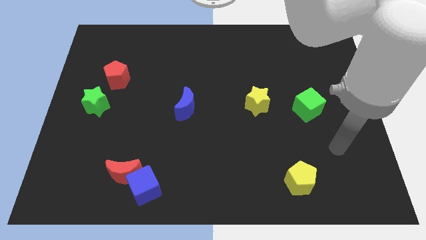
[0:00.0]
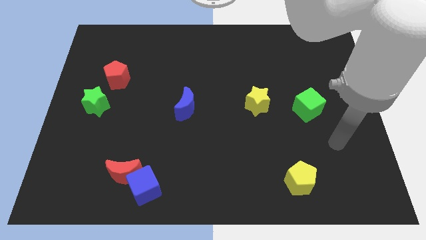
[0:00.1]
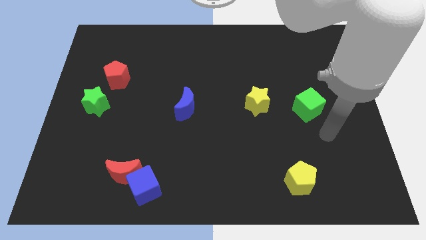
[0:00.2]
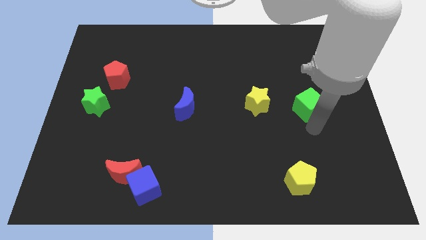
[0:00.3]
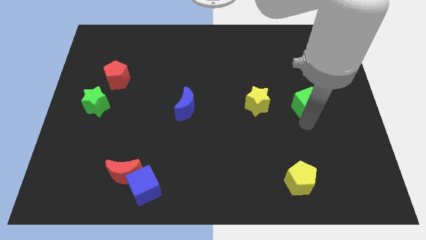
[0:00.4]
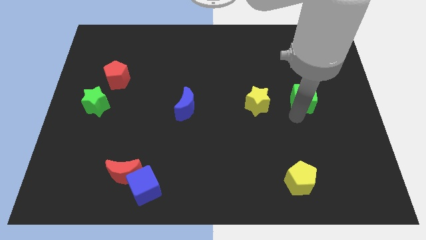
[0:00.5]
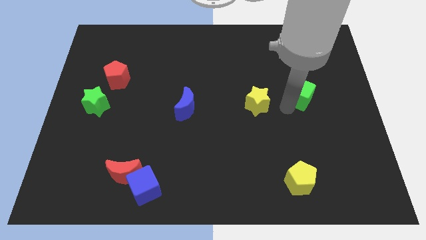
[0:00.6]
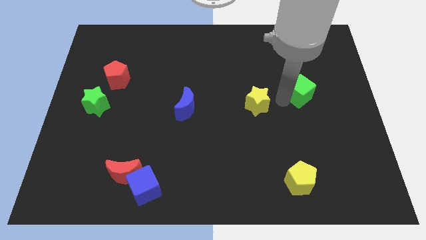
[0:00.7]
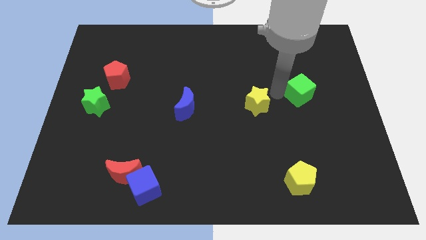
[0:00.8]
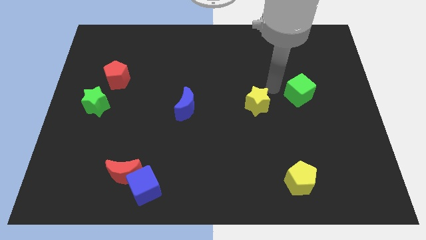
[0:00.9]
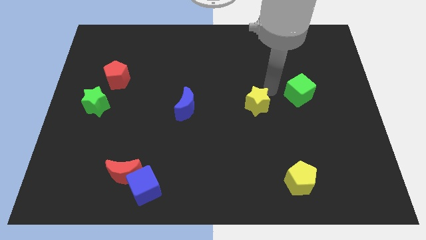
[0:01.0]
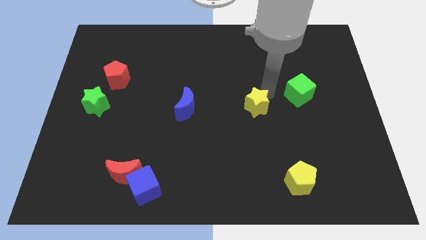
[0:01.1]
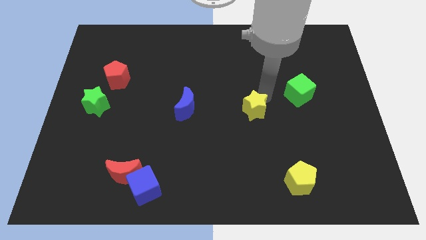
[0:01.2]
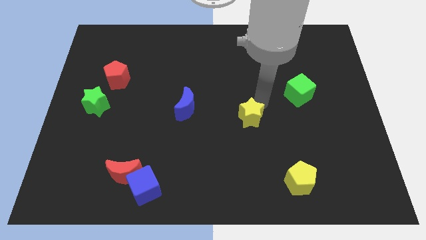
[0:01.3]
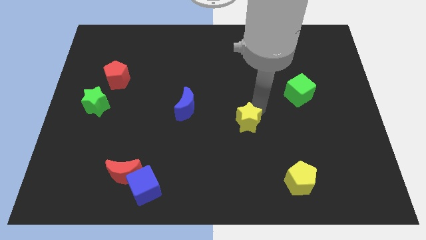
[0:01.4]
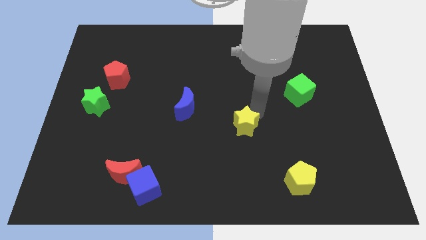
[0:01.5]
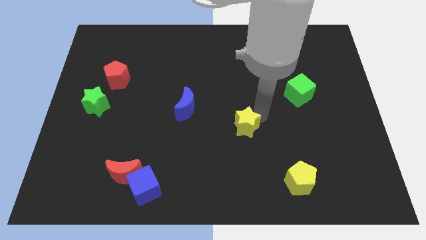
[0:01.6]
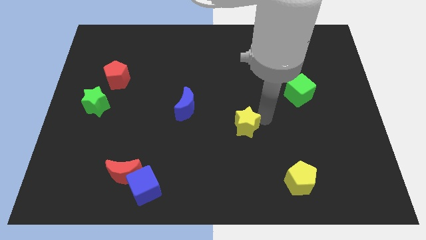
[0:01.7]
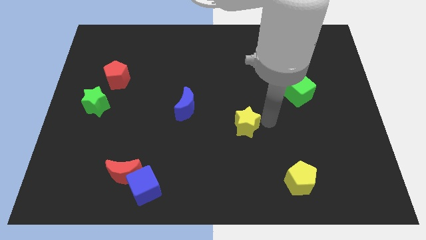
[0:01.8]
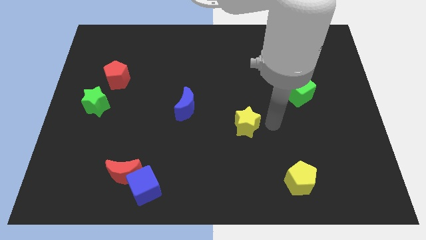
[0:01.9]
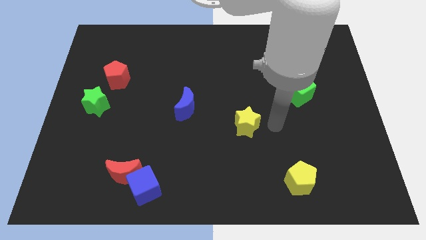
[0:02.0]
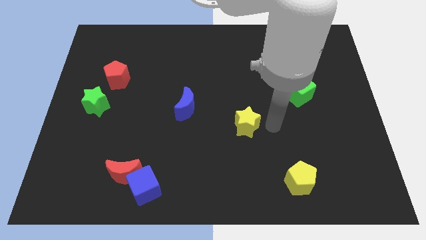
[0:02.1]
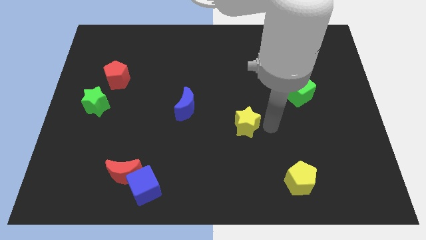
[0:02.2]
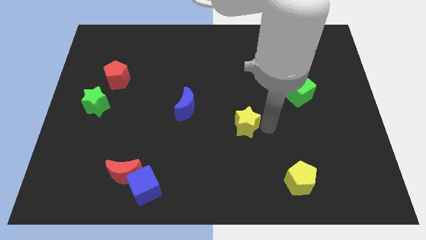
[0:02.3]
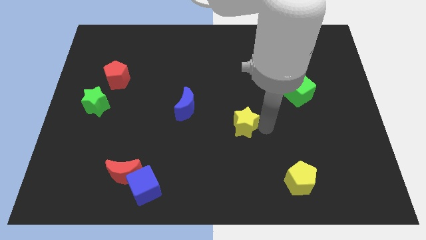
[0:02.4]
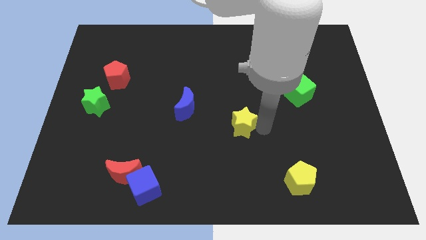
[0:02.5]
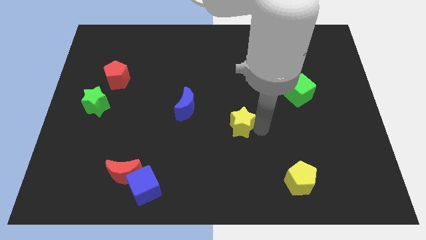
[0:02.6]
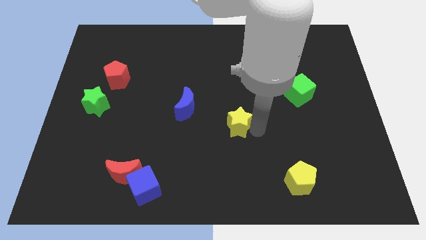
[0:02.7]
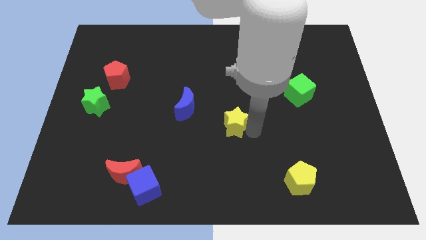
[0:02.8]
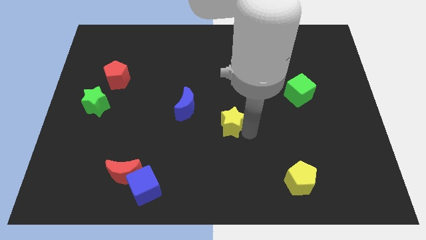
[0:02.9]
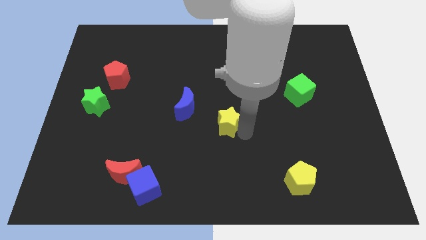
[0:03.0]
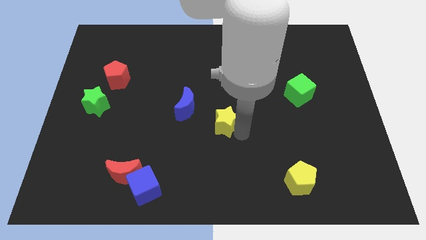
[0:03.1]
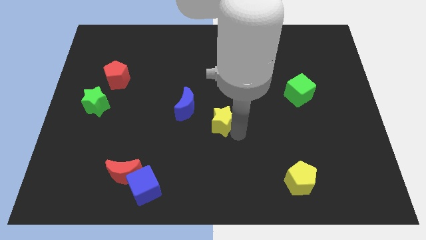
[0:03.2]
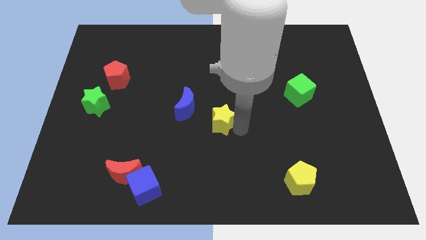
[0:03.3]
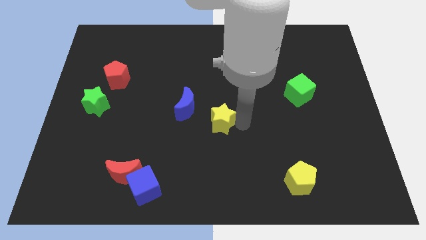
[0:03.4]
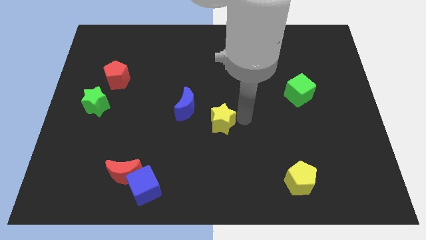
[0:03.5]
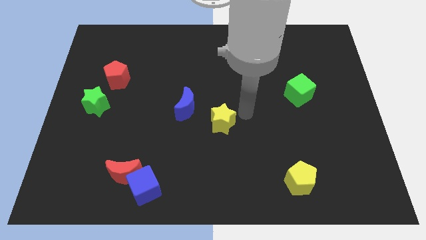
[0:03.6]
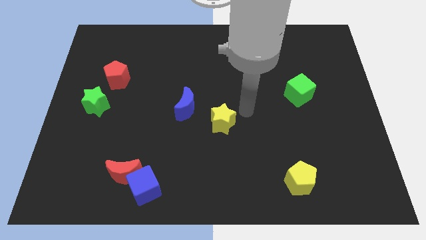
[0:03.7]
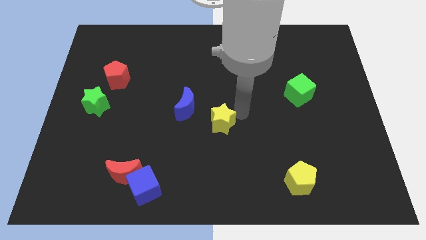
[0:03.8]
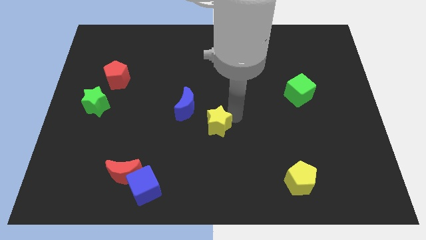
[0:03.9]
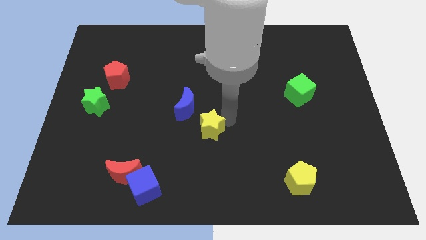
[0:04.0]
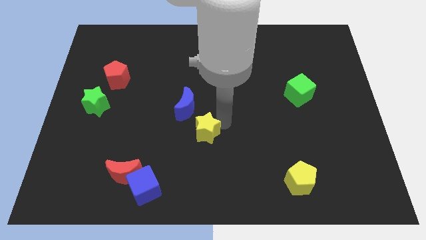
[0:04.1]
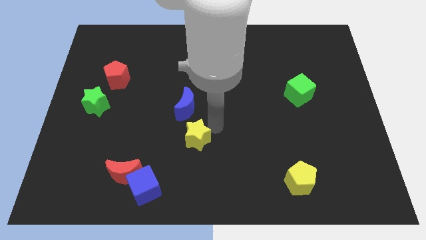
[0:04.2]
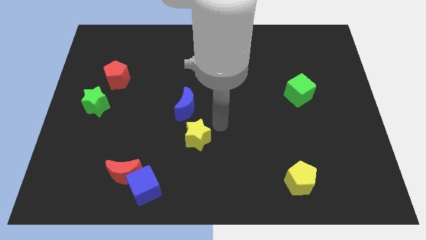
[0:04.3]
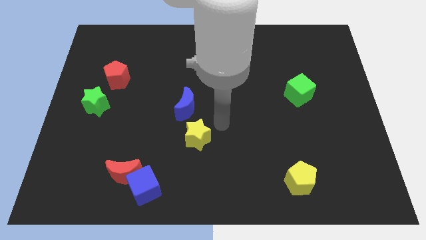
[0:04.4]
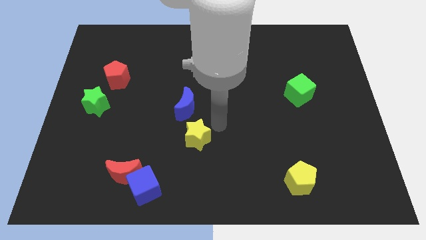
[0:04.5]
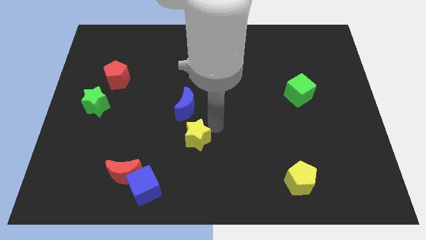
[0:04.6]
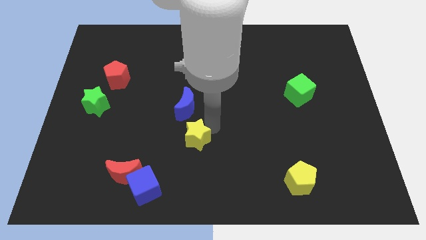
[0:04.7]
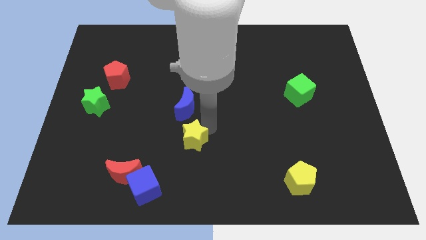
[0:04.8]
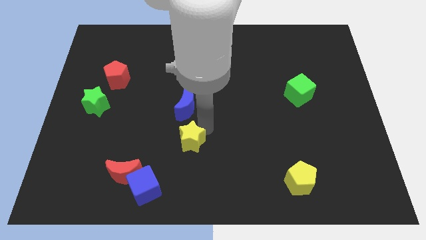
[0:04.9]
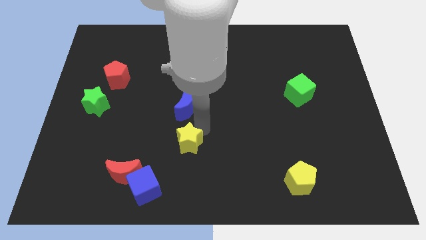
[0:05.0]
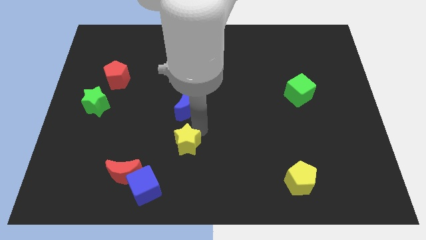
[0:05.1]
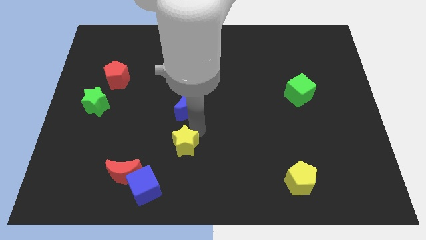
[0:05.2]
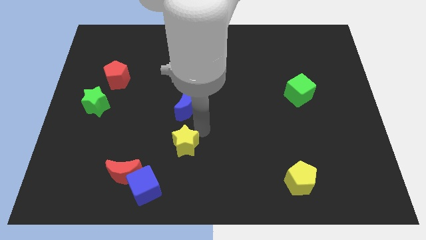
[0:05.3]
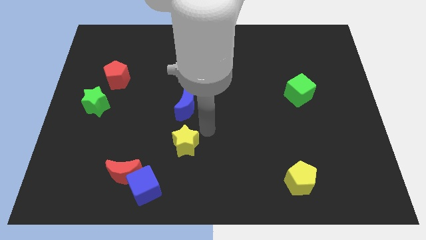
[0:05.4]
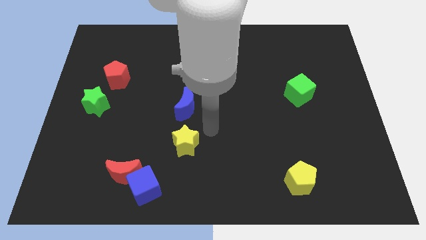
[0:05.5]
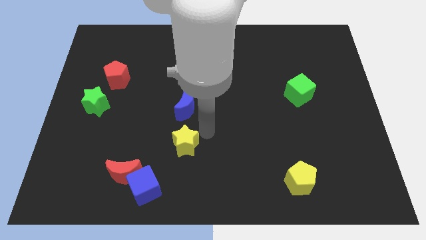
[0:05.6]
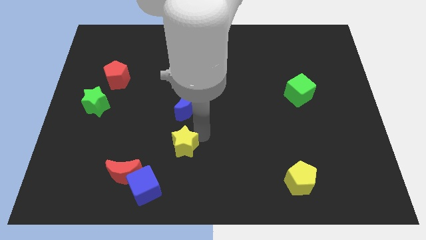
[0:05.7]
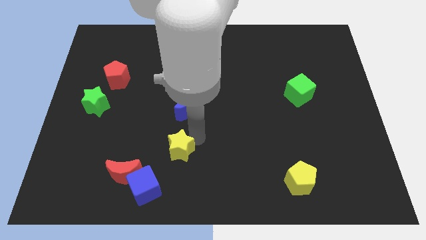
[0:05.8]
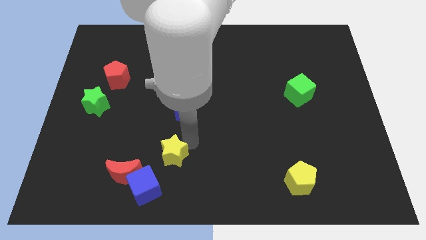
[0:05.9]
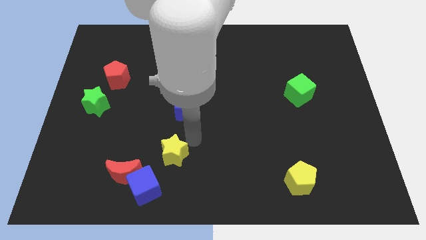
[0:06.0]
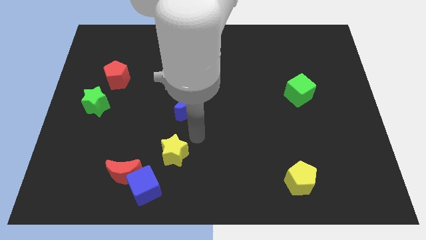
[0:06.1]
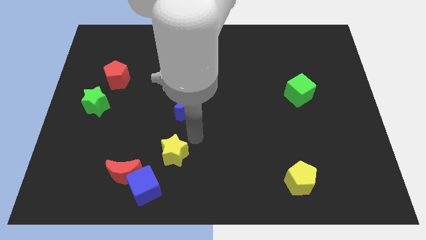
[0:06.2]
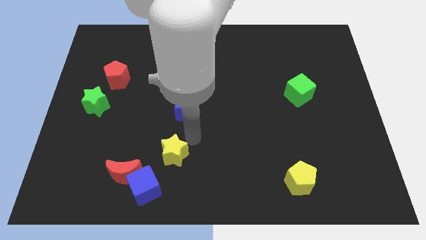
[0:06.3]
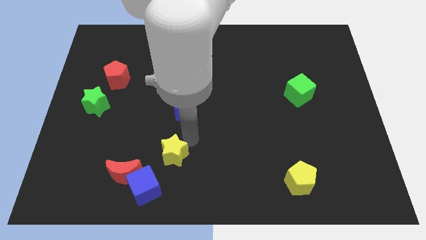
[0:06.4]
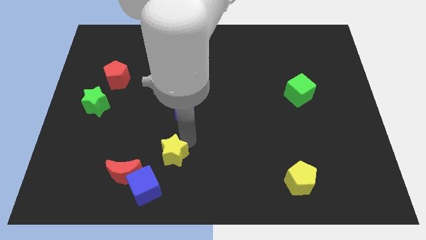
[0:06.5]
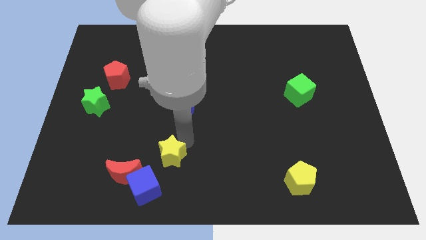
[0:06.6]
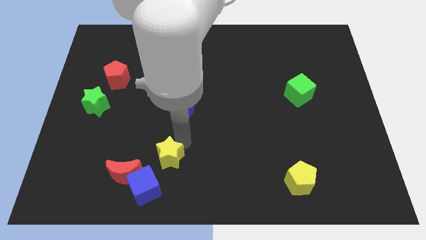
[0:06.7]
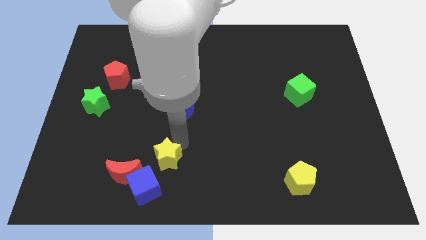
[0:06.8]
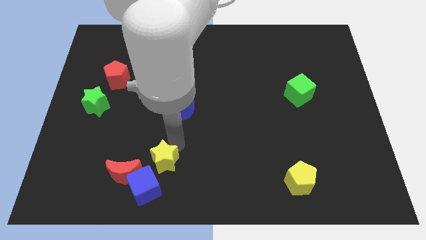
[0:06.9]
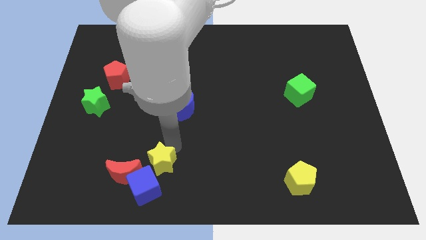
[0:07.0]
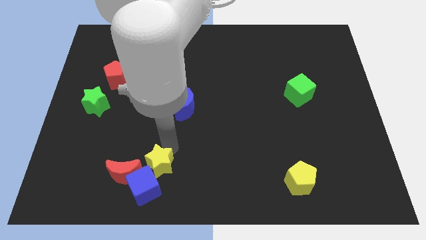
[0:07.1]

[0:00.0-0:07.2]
slide the yellow star to the blue cube

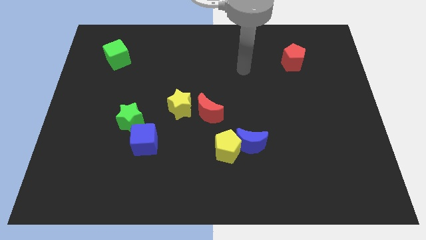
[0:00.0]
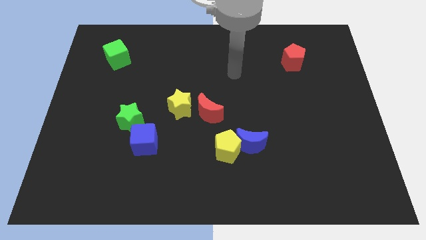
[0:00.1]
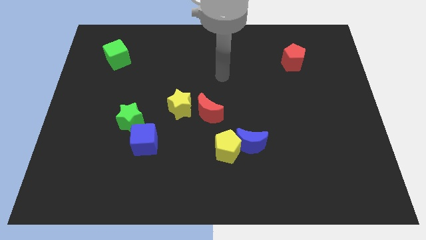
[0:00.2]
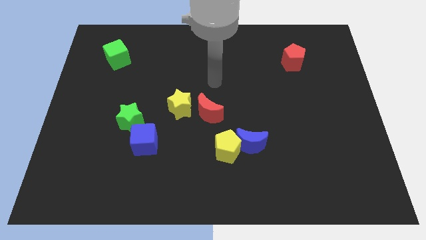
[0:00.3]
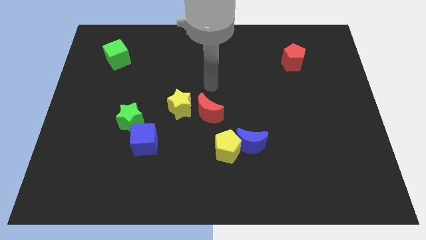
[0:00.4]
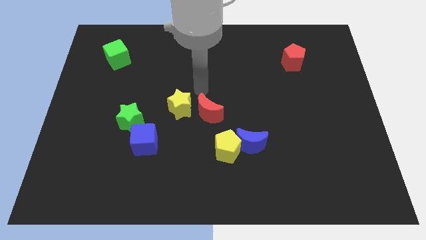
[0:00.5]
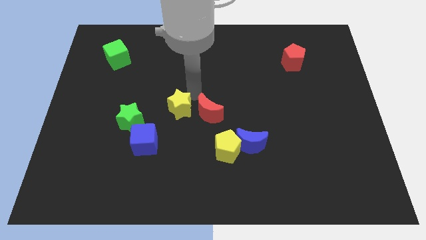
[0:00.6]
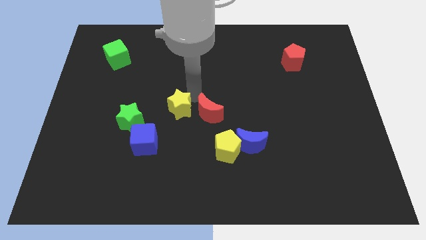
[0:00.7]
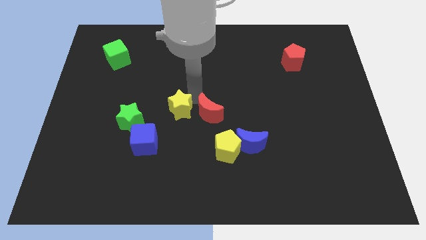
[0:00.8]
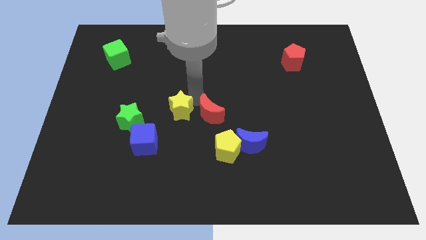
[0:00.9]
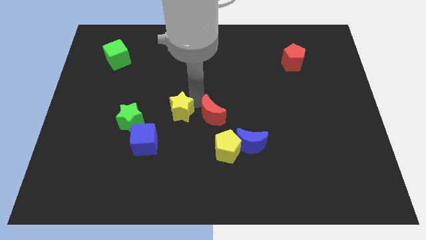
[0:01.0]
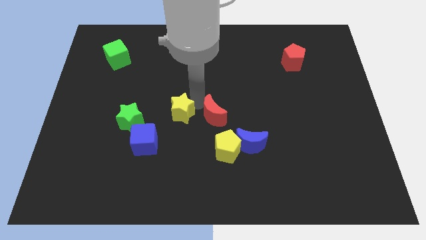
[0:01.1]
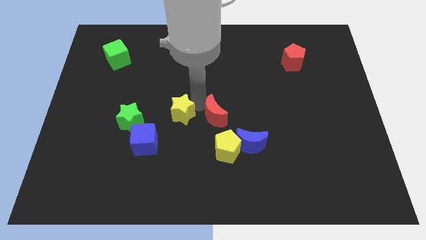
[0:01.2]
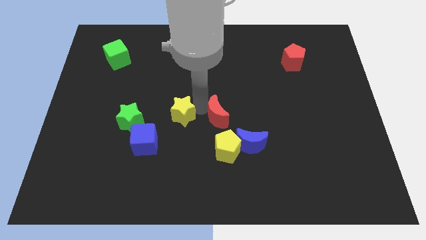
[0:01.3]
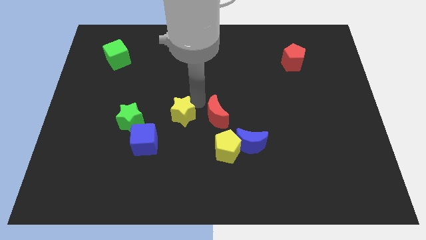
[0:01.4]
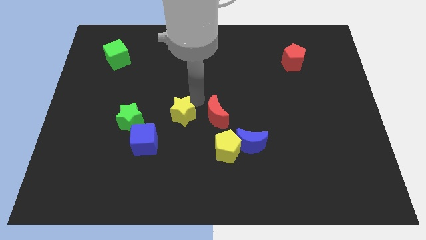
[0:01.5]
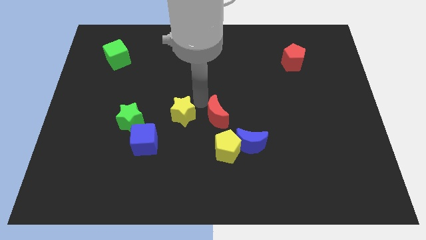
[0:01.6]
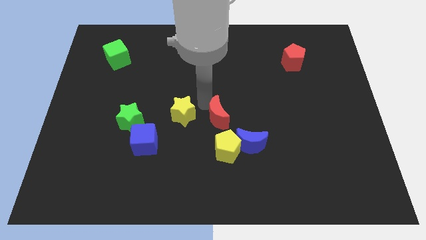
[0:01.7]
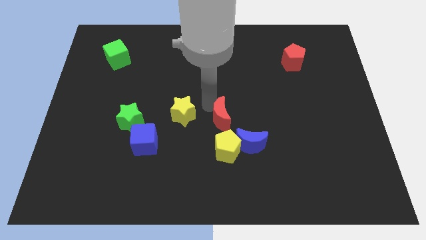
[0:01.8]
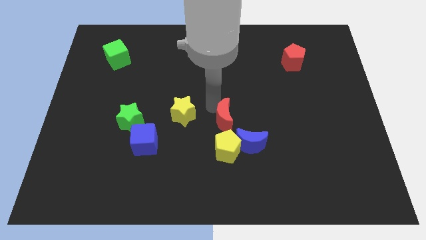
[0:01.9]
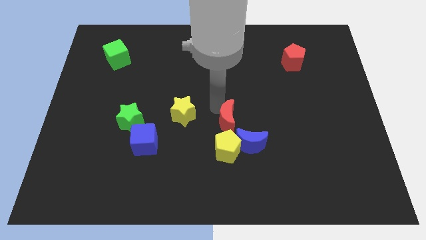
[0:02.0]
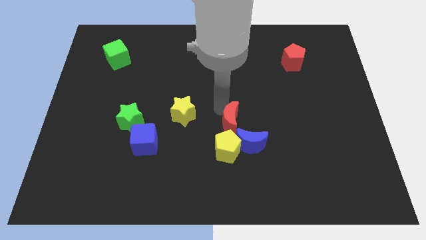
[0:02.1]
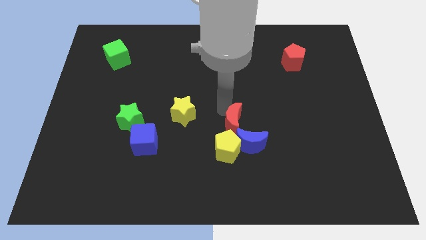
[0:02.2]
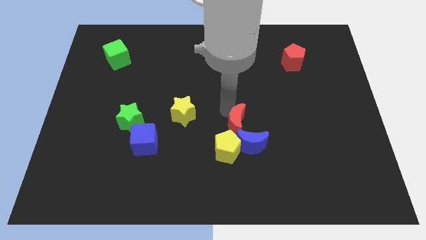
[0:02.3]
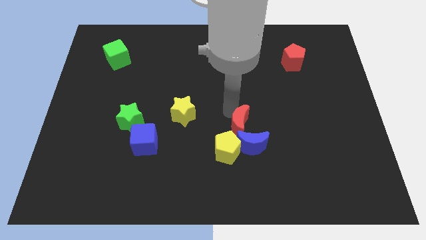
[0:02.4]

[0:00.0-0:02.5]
push the red moon towards the blue moon
